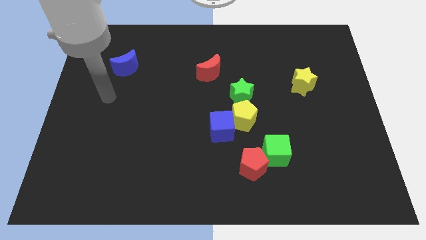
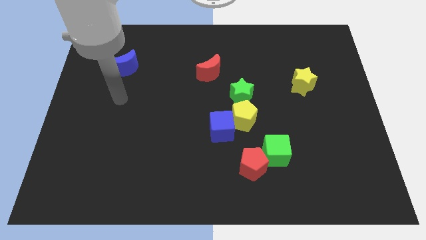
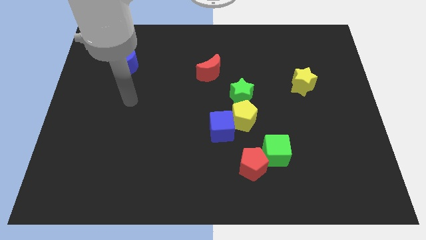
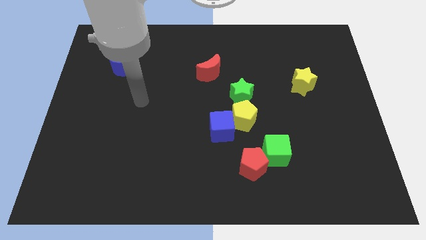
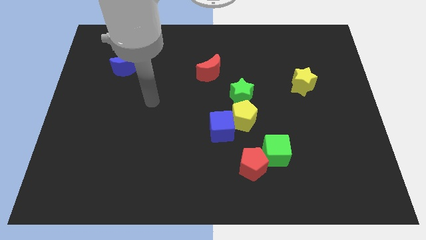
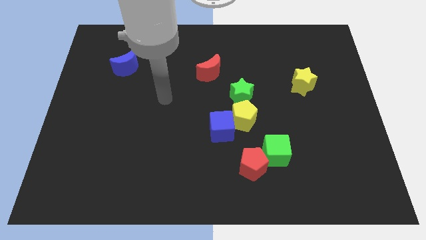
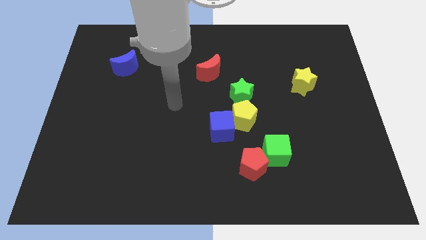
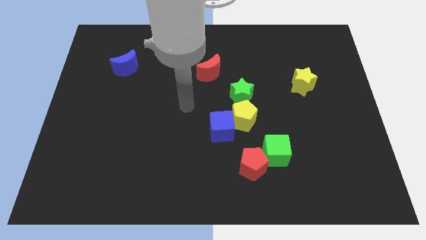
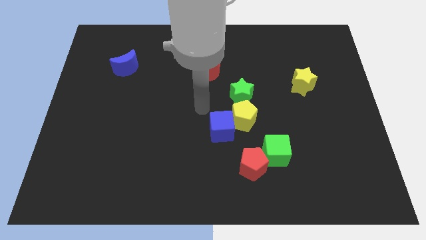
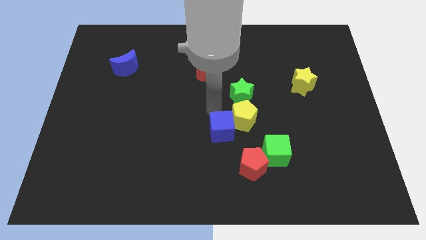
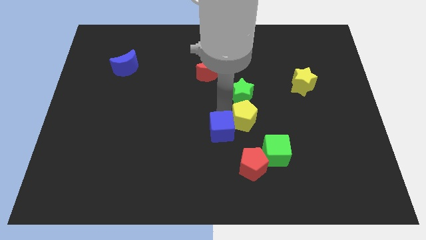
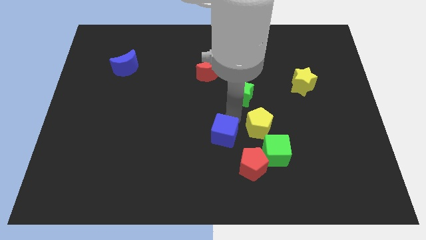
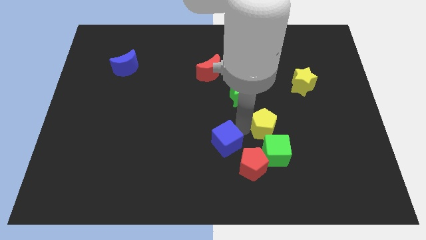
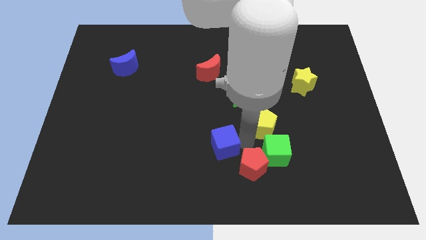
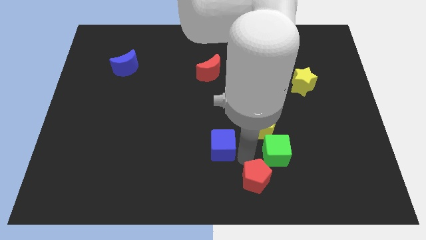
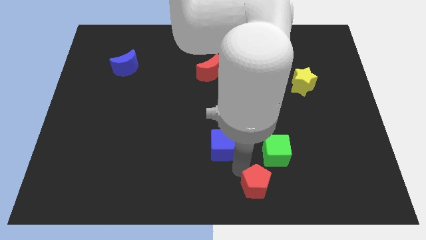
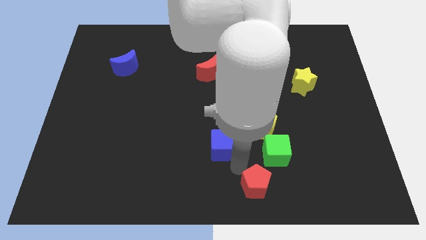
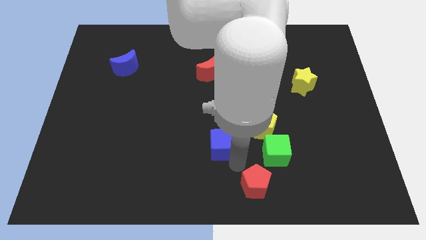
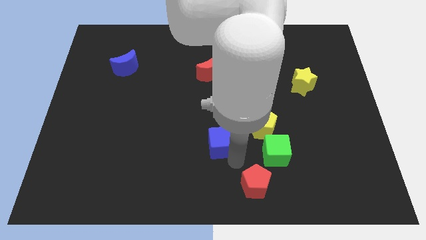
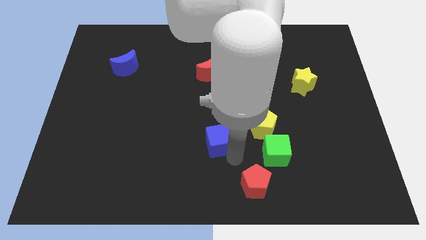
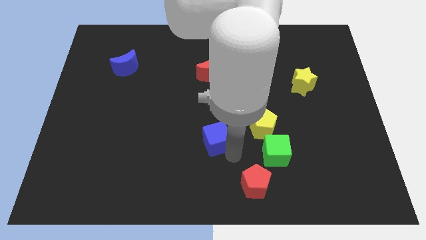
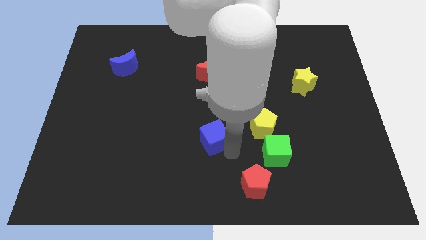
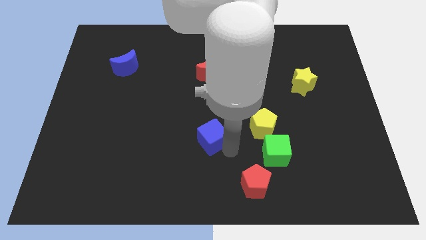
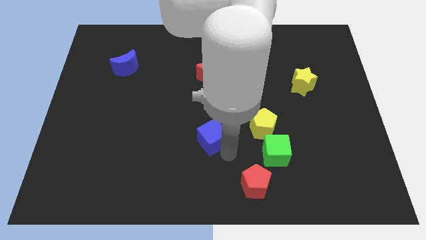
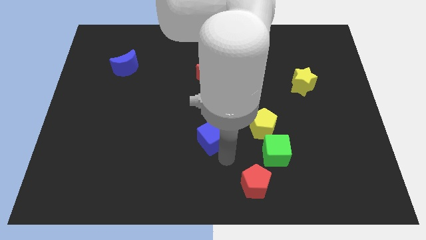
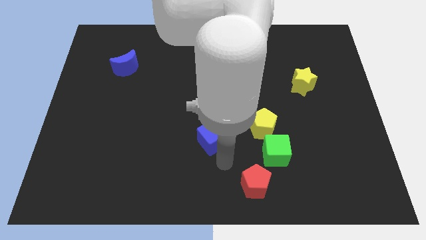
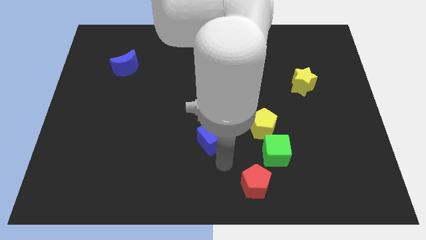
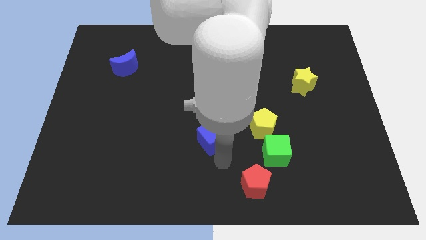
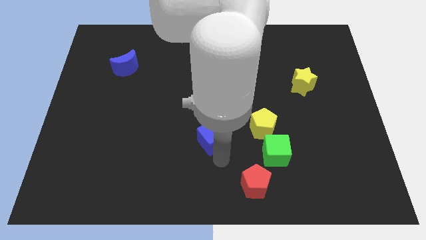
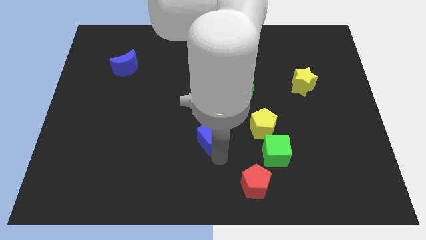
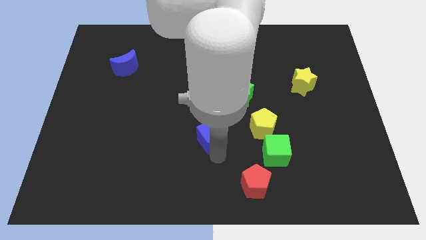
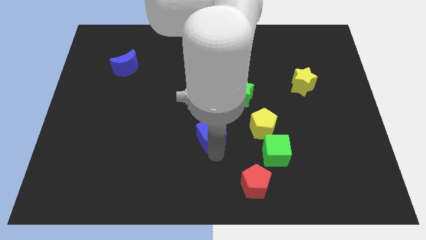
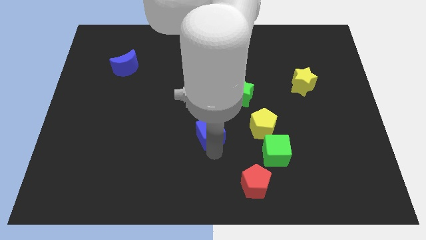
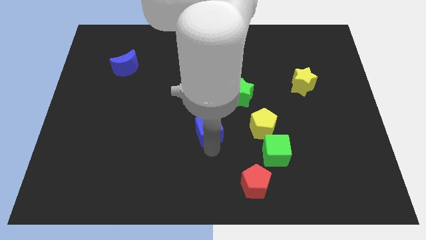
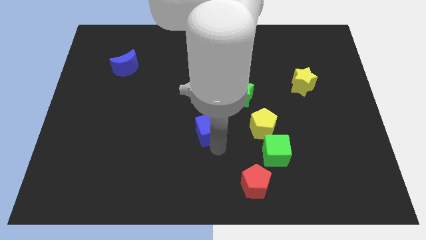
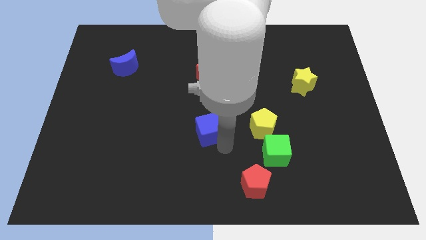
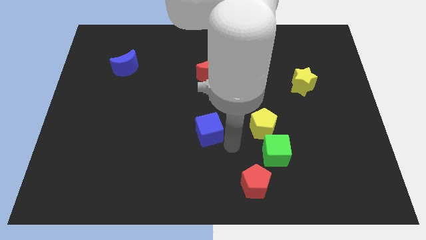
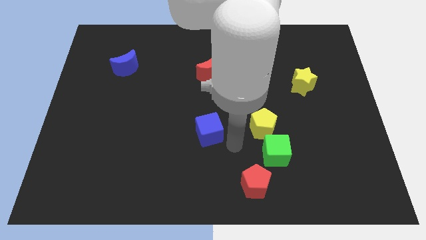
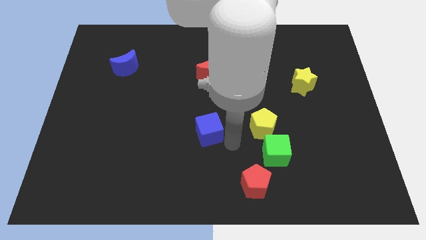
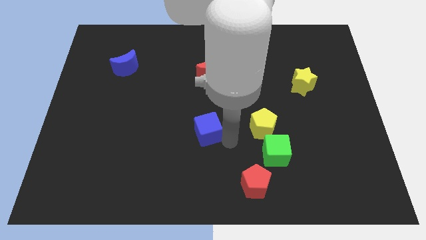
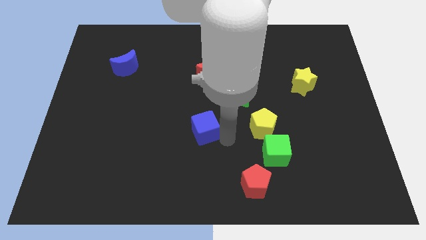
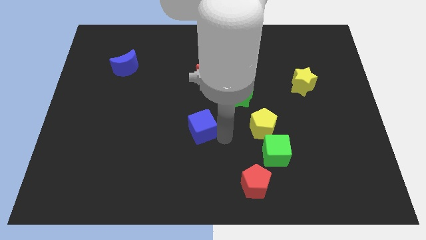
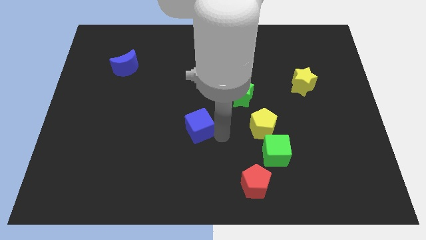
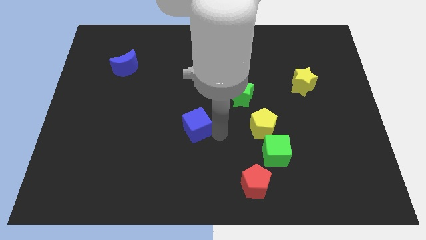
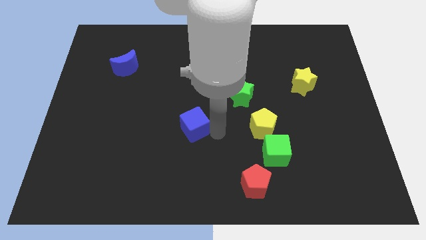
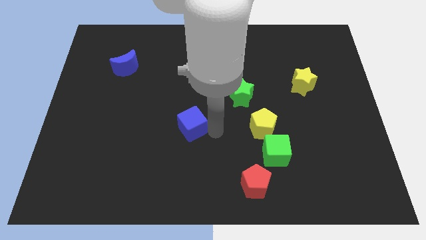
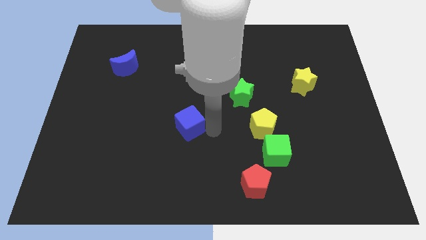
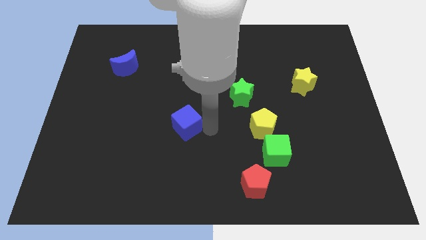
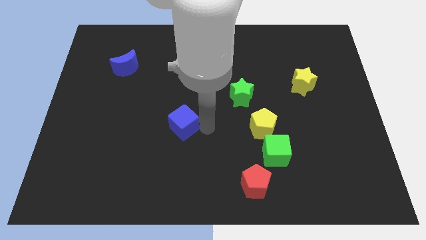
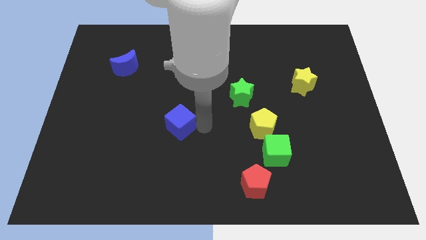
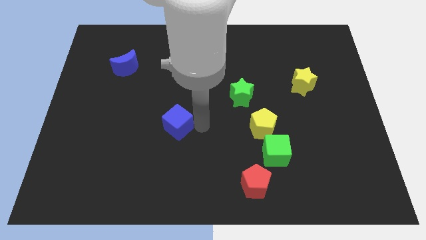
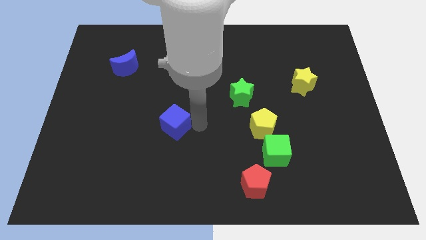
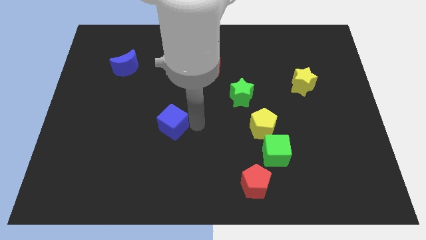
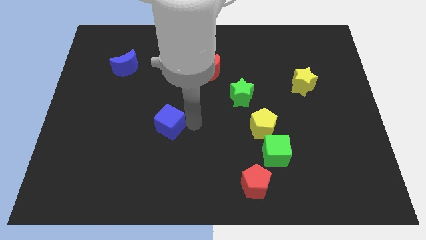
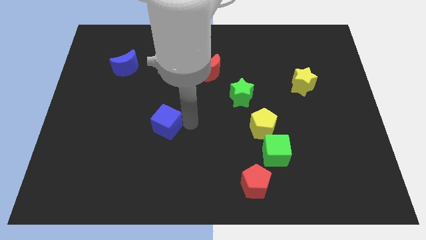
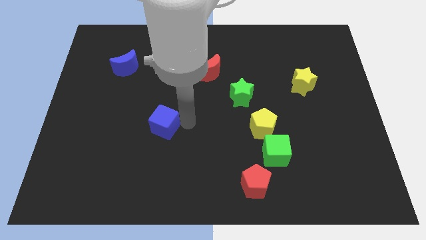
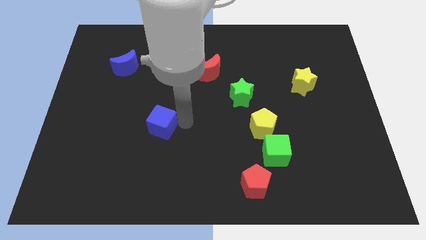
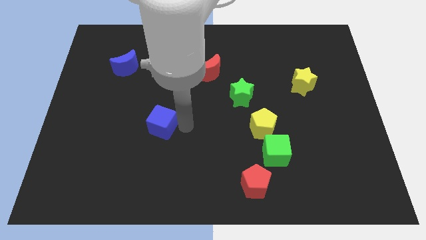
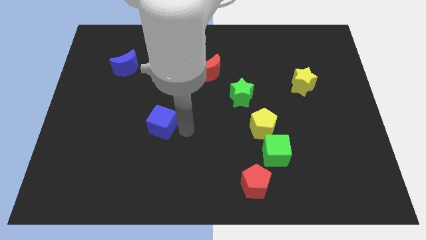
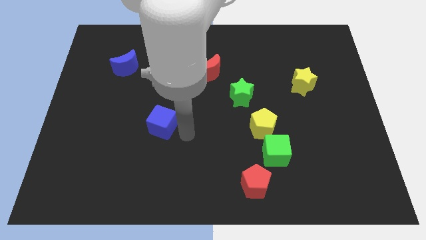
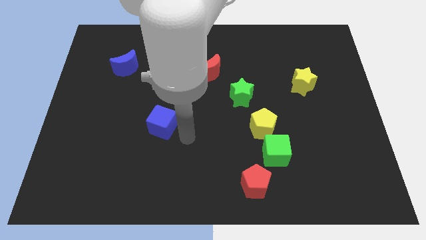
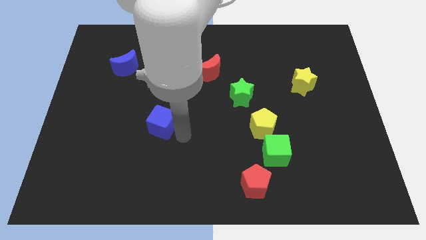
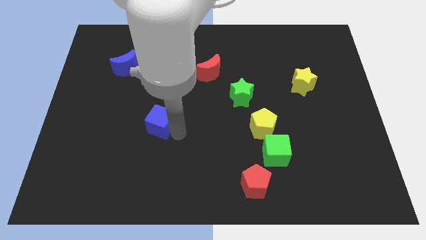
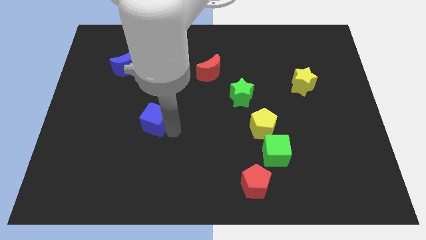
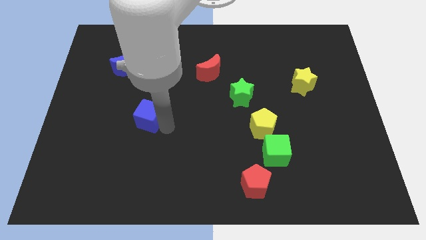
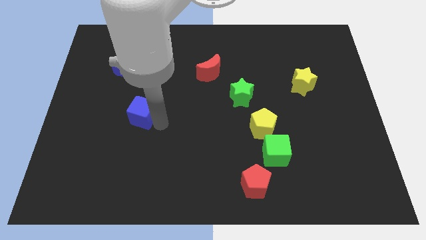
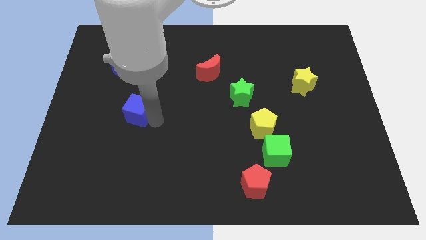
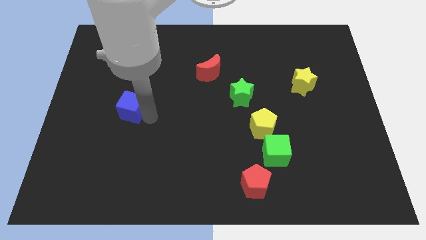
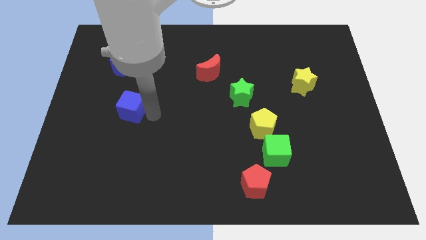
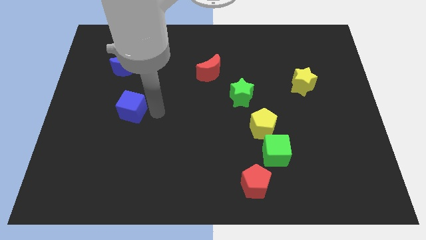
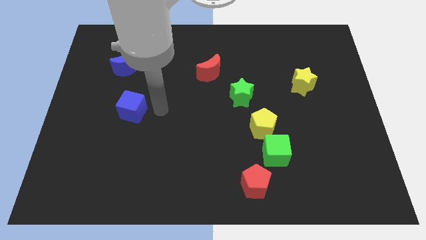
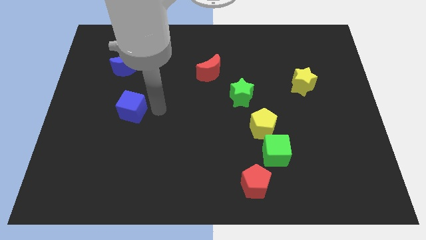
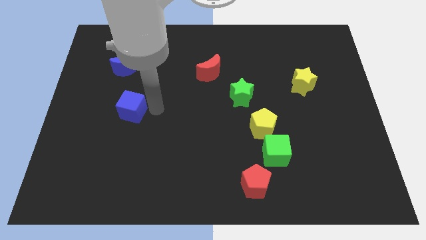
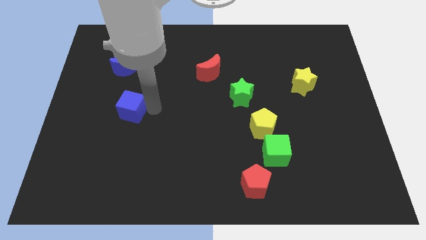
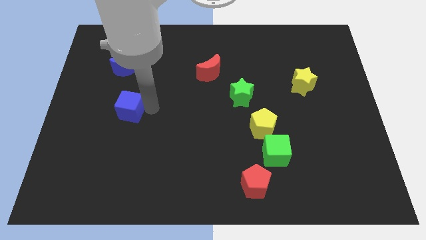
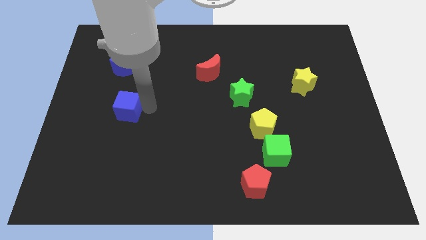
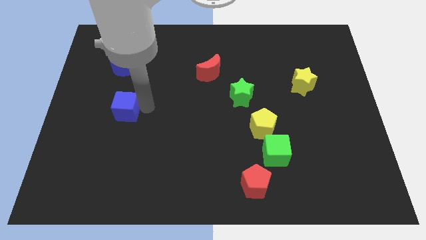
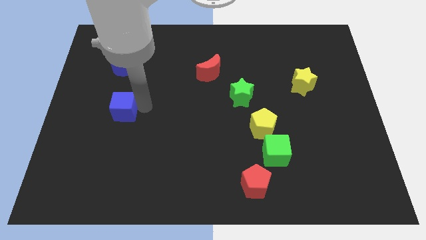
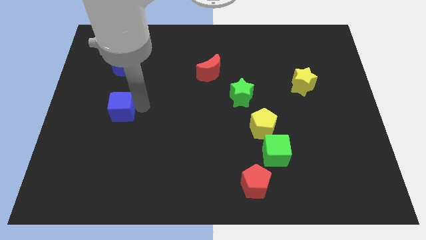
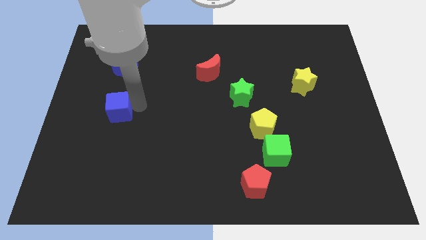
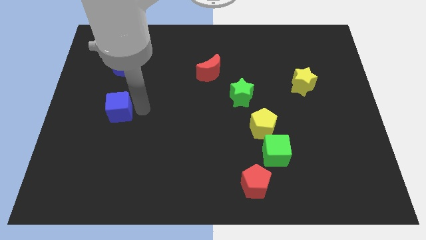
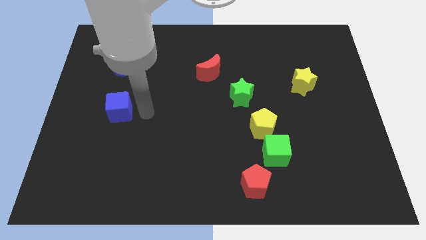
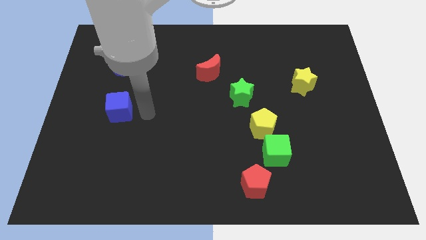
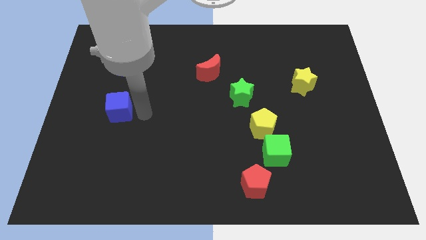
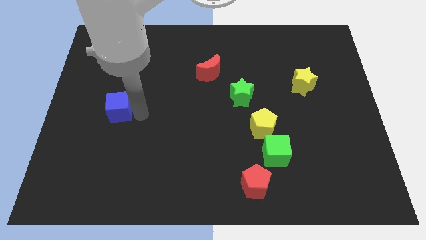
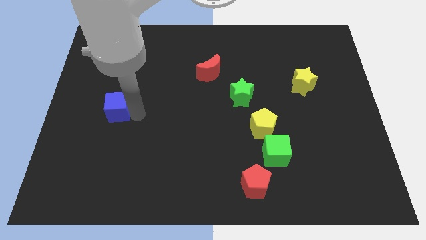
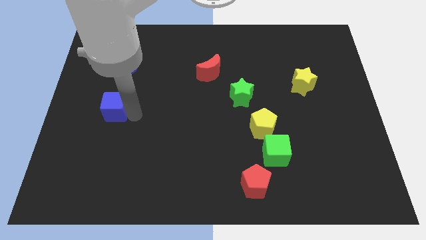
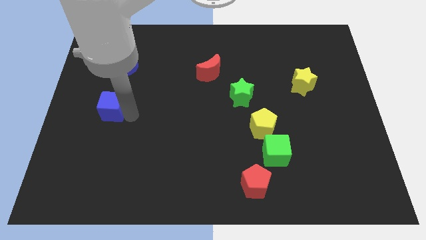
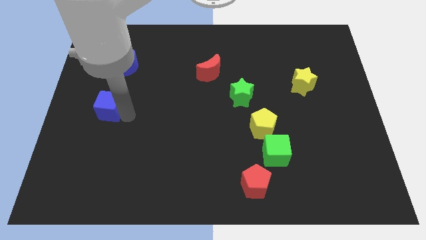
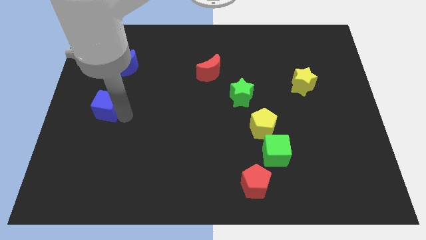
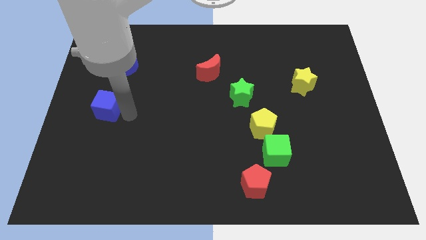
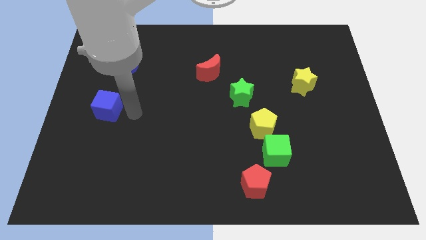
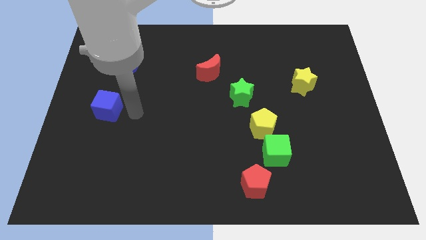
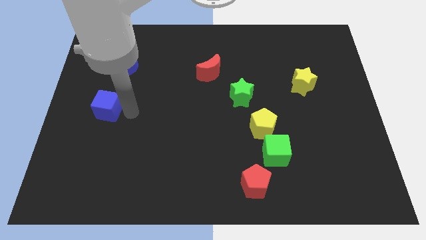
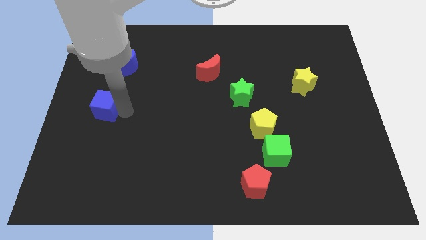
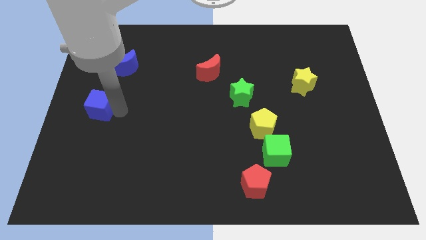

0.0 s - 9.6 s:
push the blue cube to the left side
